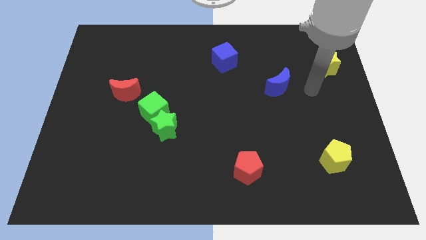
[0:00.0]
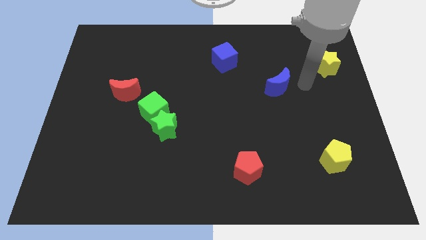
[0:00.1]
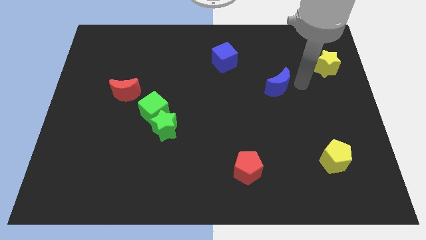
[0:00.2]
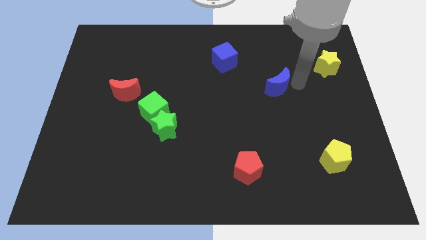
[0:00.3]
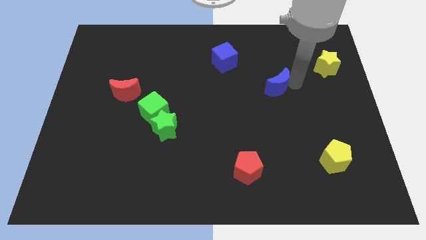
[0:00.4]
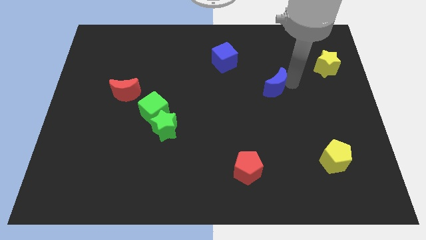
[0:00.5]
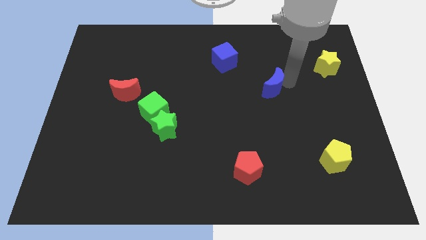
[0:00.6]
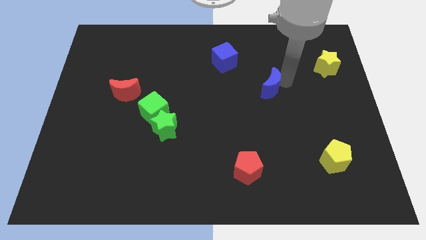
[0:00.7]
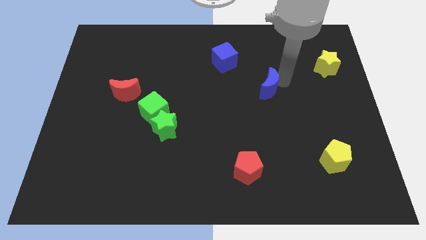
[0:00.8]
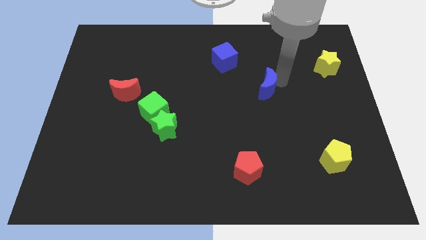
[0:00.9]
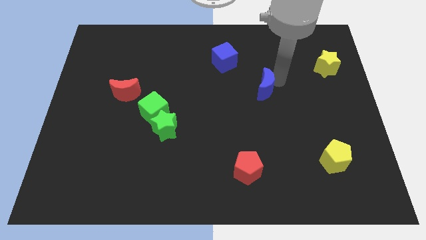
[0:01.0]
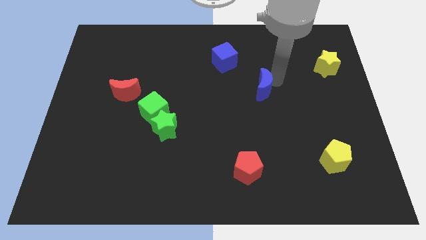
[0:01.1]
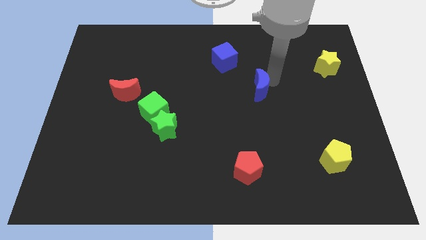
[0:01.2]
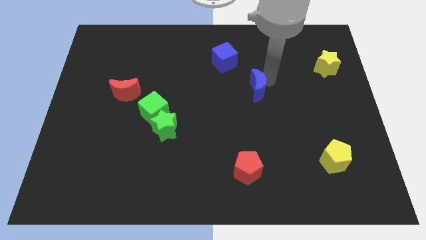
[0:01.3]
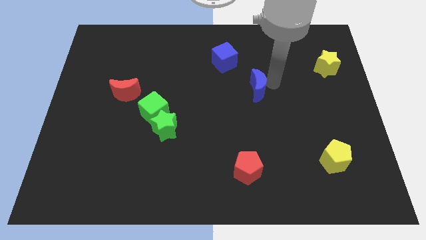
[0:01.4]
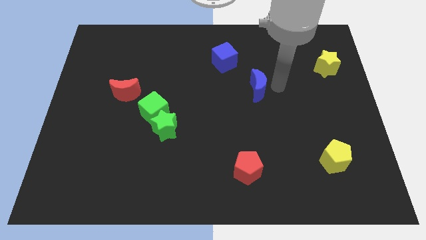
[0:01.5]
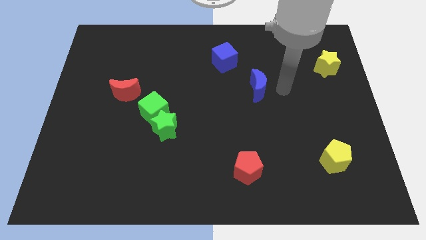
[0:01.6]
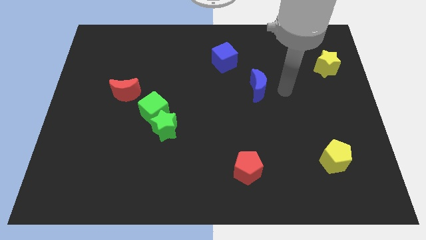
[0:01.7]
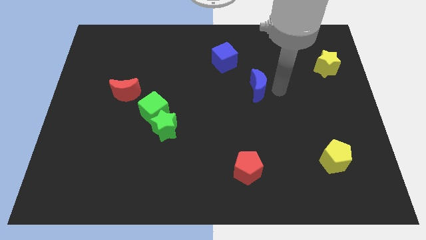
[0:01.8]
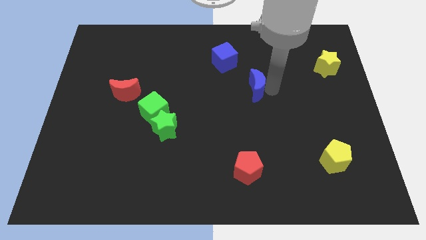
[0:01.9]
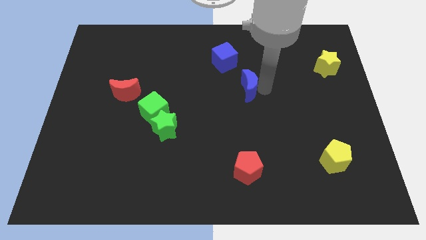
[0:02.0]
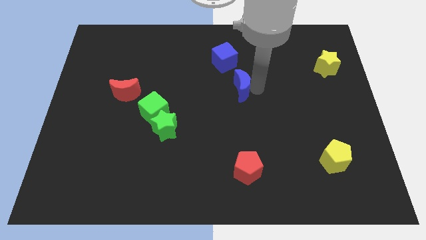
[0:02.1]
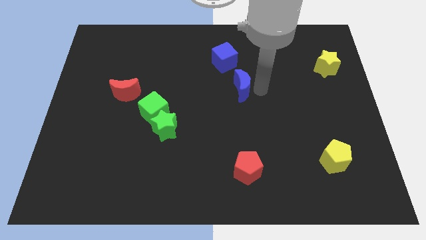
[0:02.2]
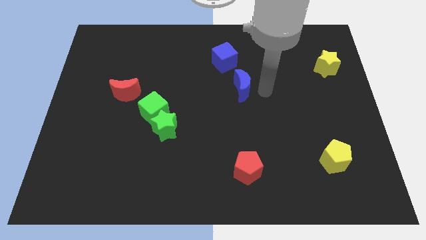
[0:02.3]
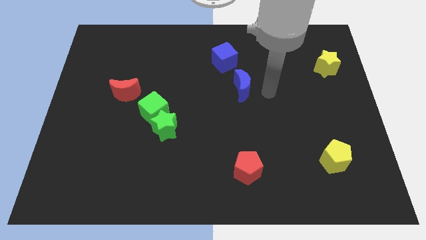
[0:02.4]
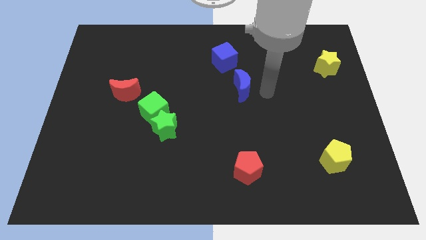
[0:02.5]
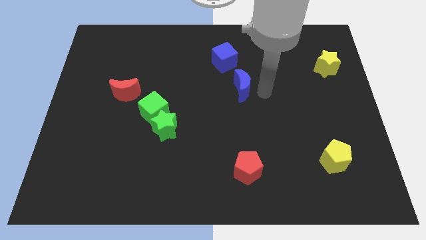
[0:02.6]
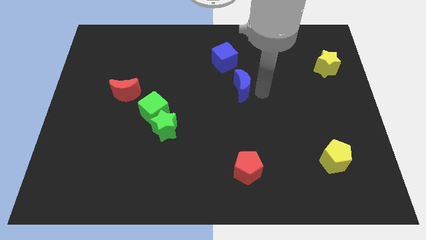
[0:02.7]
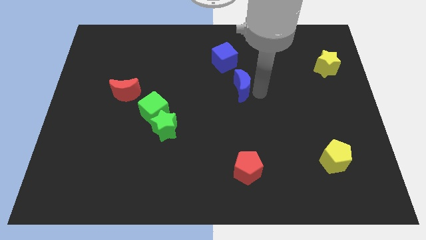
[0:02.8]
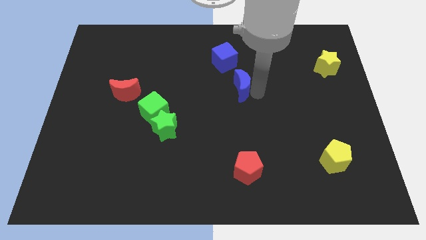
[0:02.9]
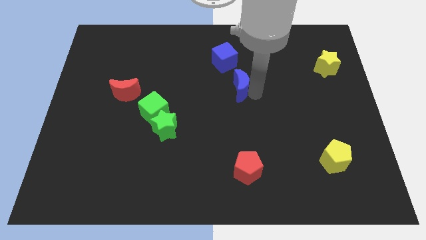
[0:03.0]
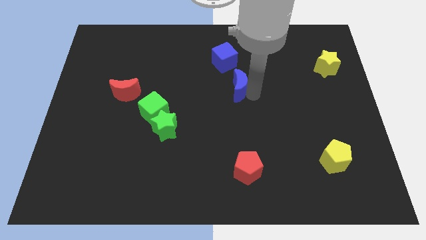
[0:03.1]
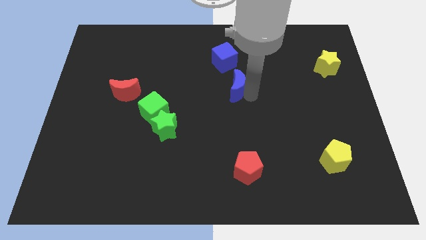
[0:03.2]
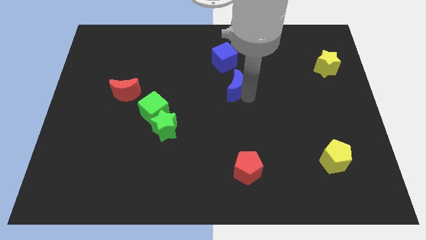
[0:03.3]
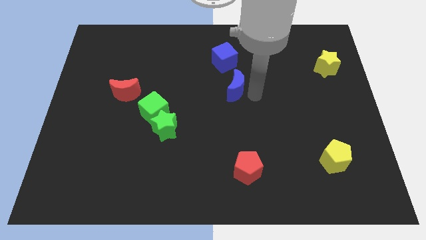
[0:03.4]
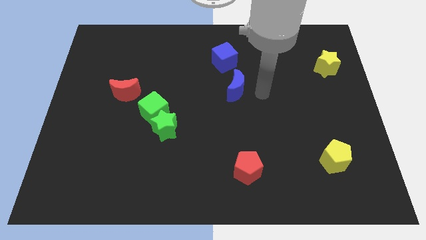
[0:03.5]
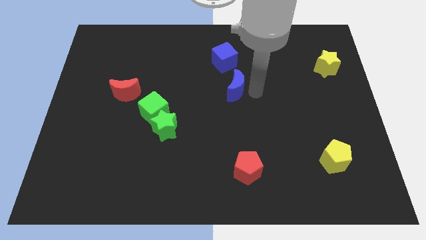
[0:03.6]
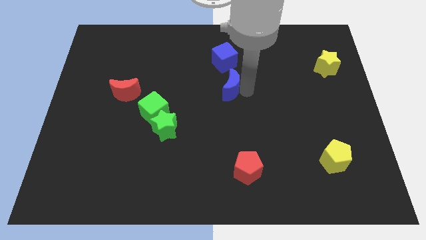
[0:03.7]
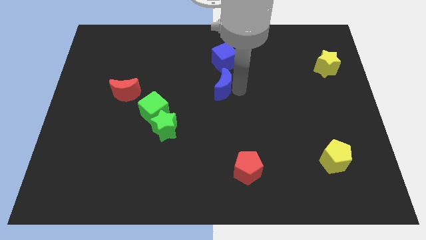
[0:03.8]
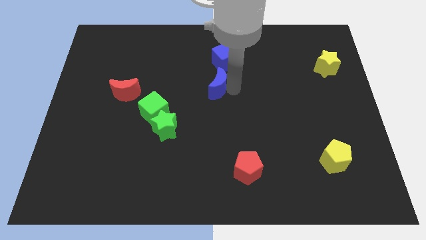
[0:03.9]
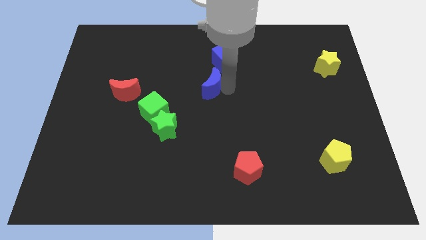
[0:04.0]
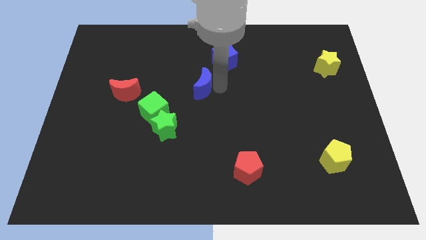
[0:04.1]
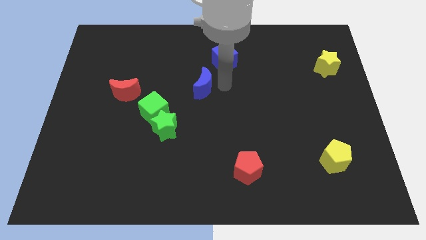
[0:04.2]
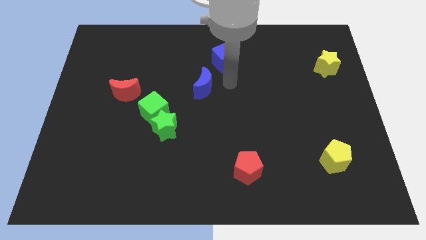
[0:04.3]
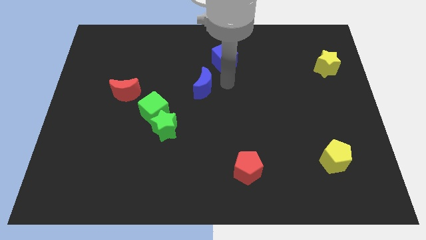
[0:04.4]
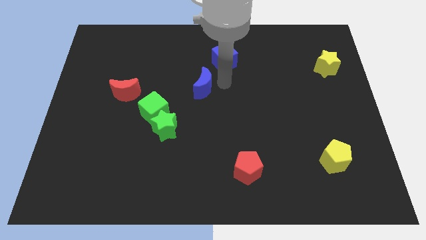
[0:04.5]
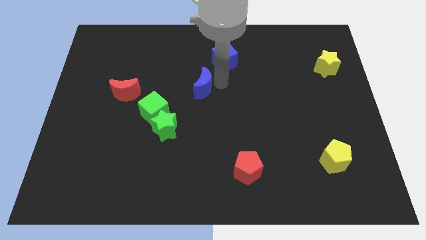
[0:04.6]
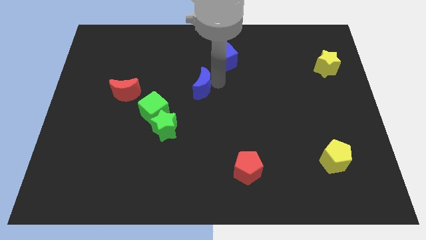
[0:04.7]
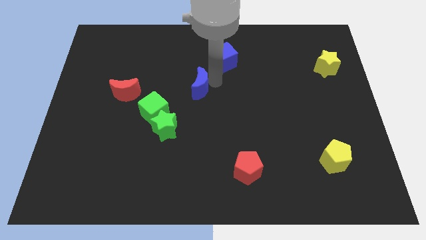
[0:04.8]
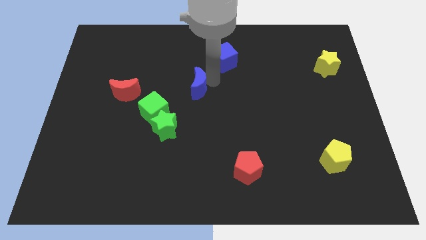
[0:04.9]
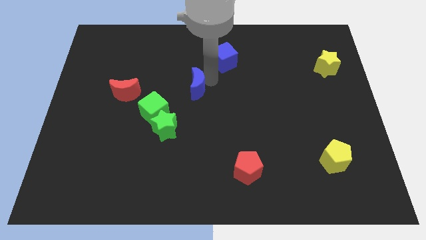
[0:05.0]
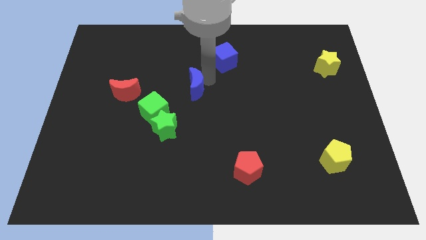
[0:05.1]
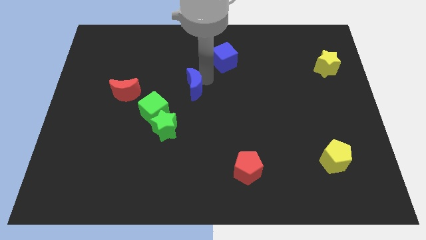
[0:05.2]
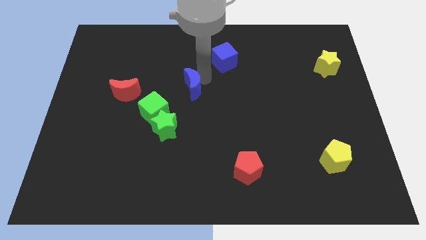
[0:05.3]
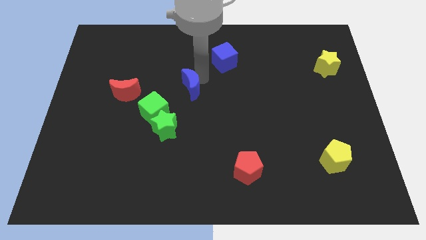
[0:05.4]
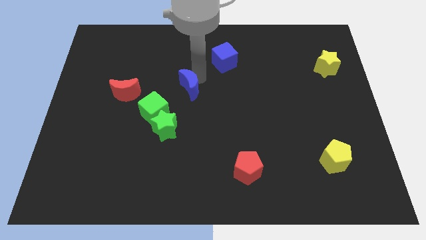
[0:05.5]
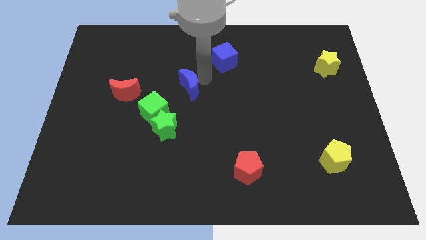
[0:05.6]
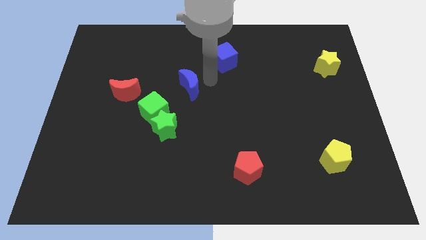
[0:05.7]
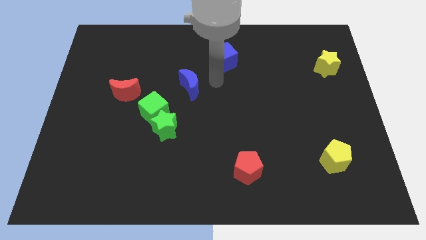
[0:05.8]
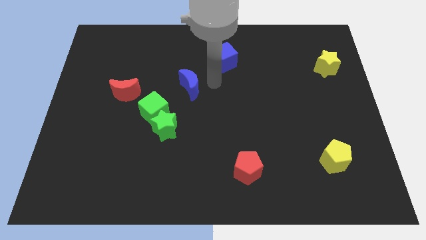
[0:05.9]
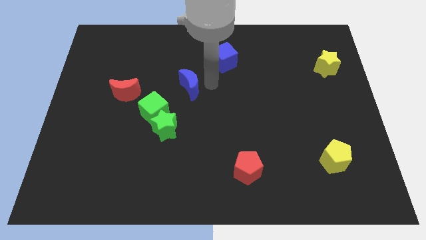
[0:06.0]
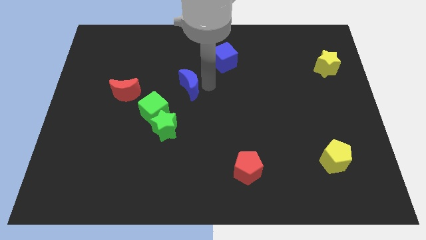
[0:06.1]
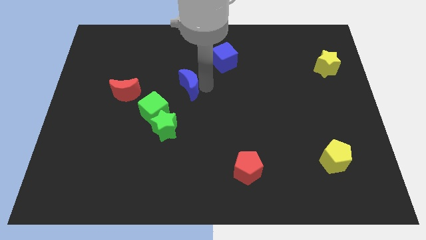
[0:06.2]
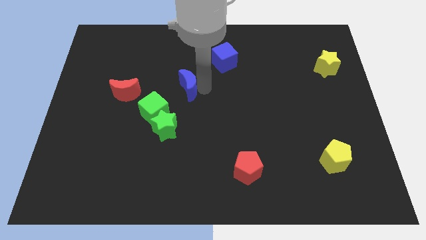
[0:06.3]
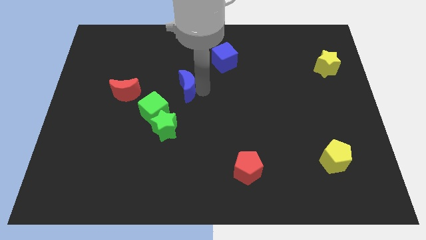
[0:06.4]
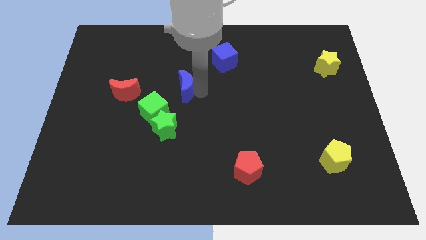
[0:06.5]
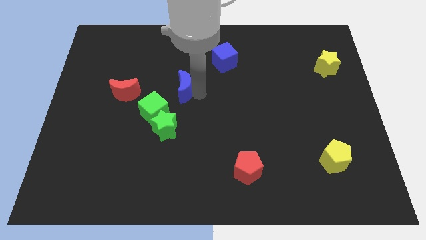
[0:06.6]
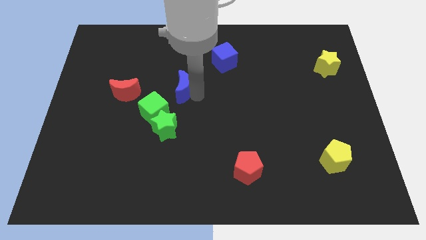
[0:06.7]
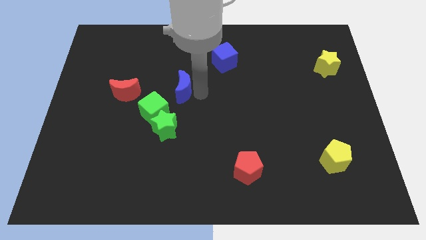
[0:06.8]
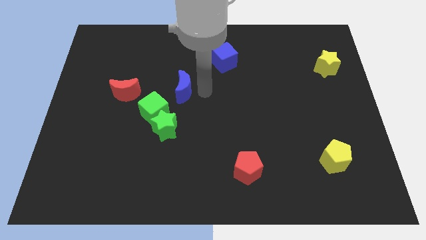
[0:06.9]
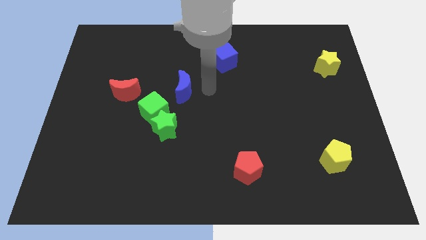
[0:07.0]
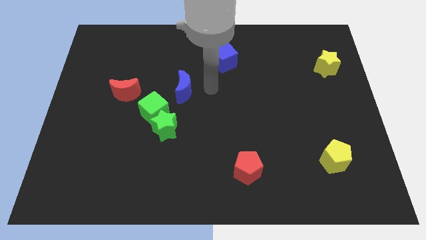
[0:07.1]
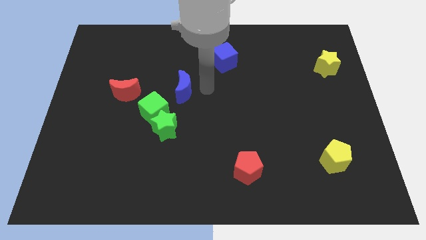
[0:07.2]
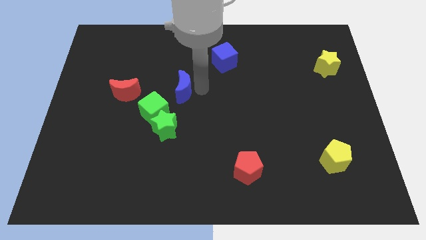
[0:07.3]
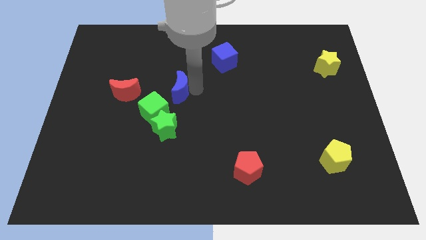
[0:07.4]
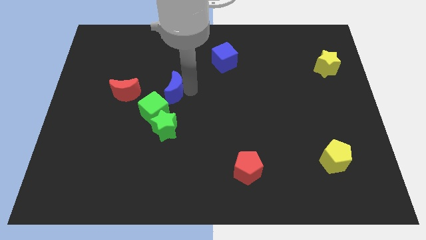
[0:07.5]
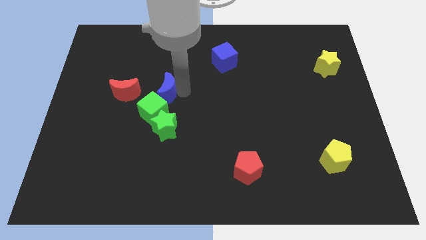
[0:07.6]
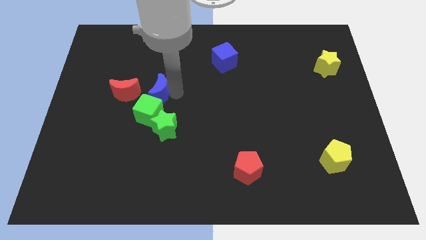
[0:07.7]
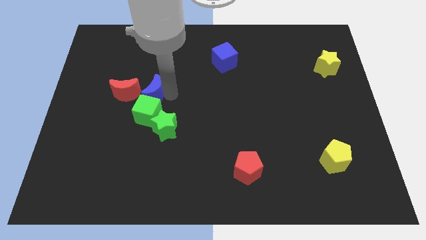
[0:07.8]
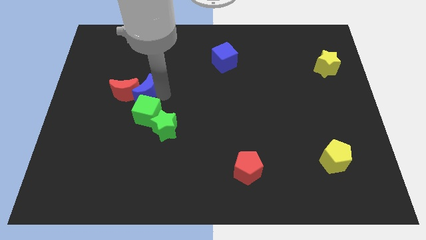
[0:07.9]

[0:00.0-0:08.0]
put the blue moon close to the red moon
